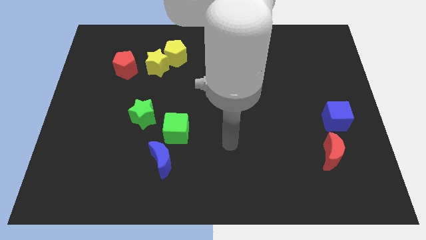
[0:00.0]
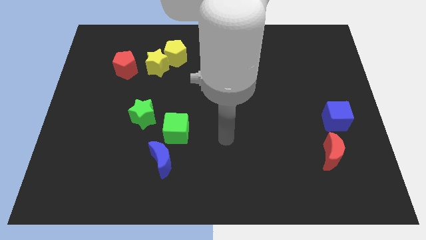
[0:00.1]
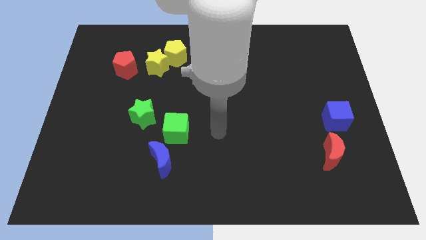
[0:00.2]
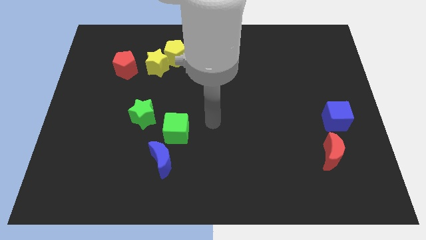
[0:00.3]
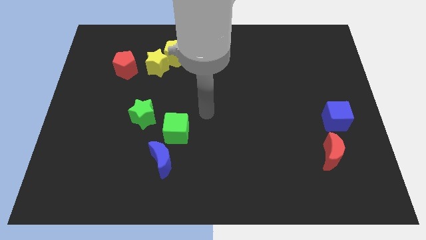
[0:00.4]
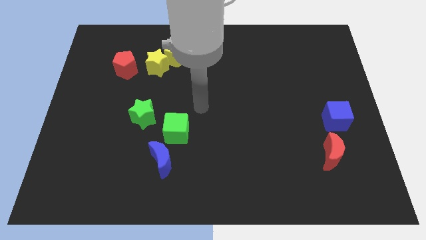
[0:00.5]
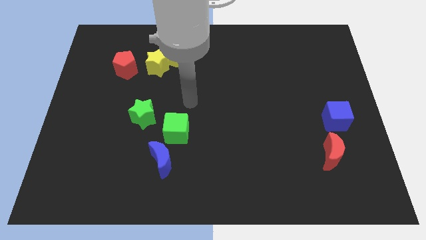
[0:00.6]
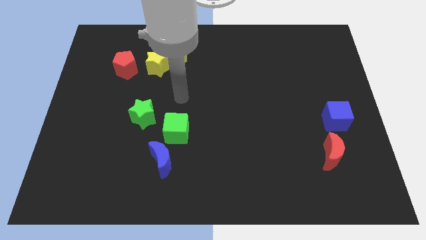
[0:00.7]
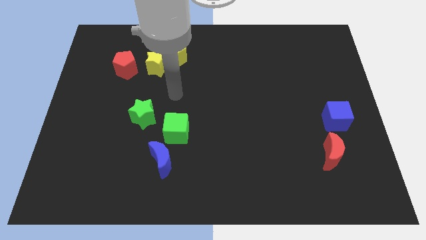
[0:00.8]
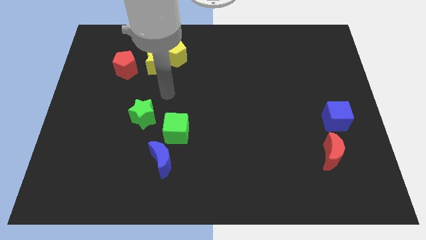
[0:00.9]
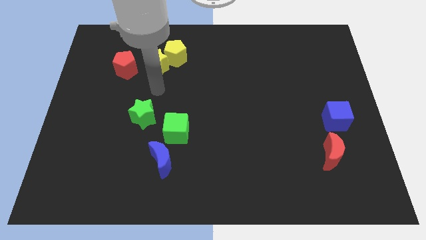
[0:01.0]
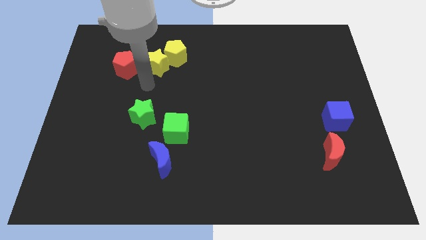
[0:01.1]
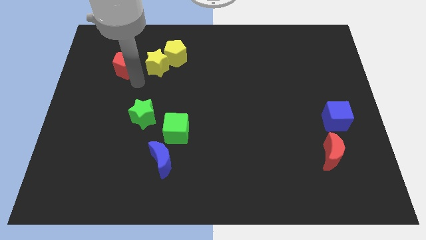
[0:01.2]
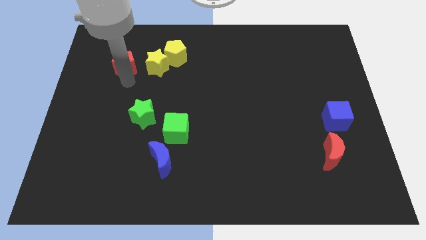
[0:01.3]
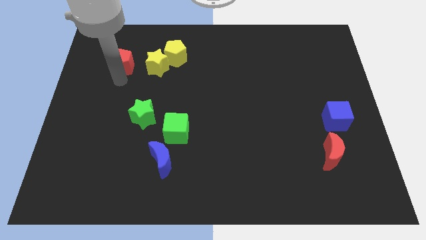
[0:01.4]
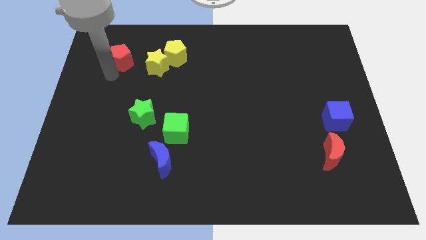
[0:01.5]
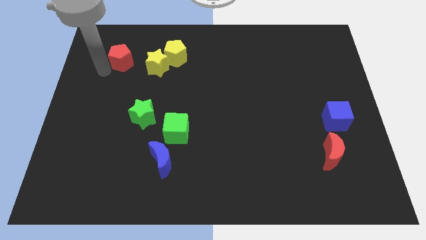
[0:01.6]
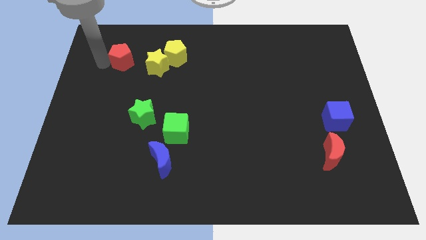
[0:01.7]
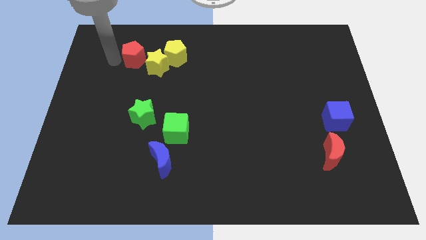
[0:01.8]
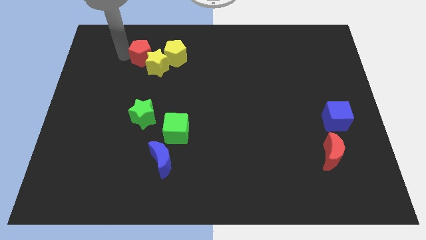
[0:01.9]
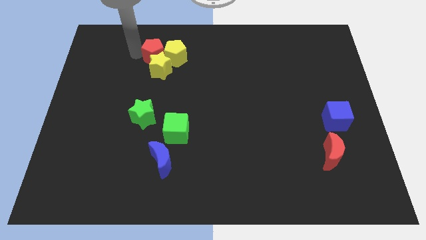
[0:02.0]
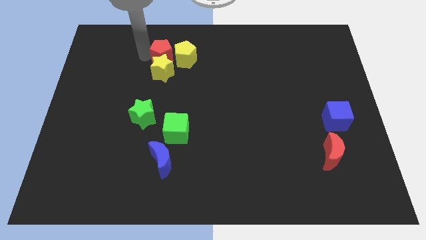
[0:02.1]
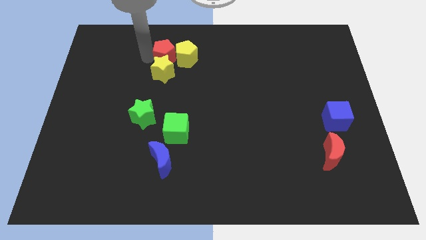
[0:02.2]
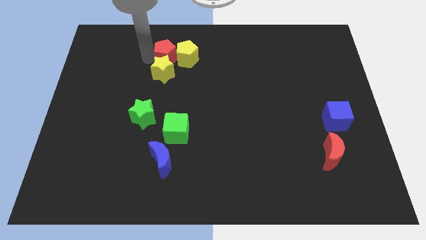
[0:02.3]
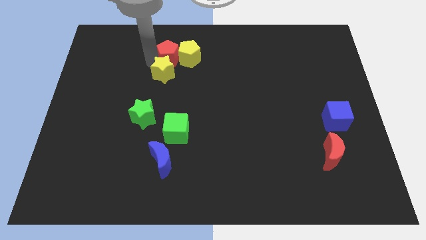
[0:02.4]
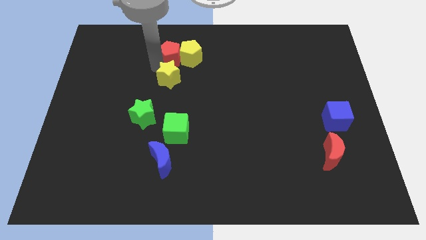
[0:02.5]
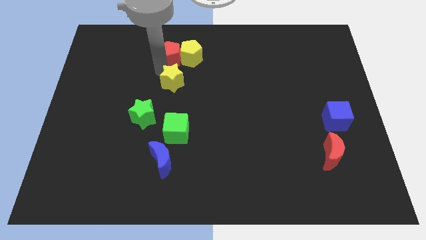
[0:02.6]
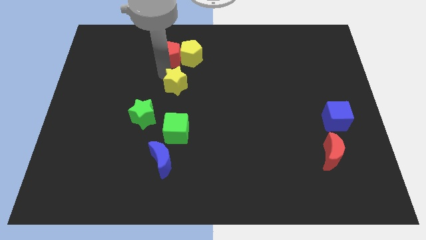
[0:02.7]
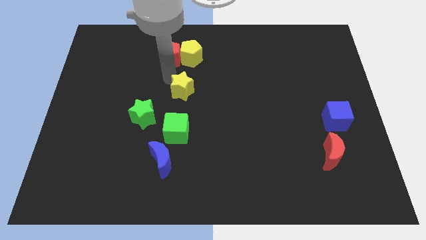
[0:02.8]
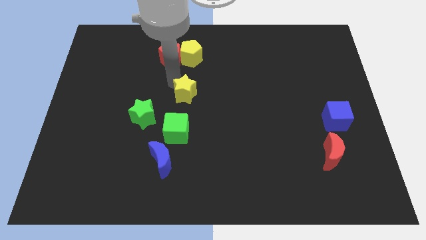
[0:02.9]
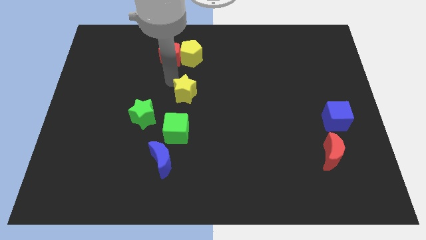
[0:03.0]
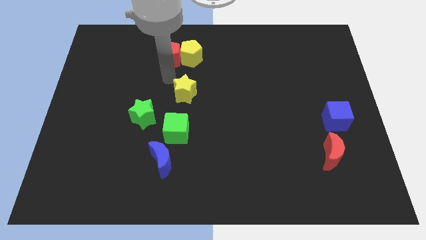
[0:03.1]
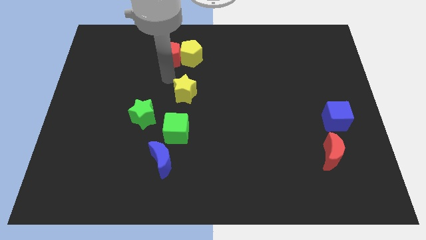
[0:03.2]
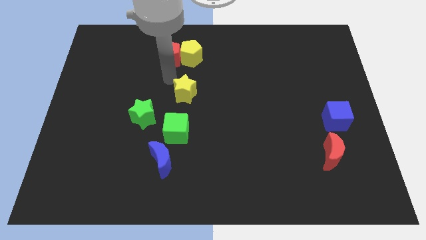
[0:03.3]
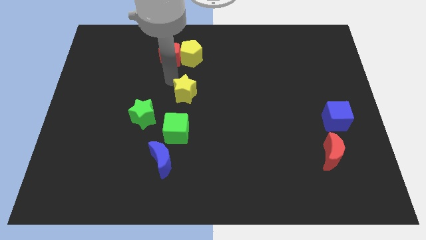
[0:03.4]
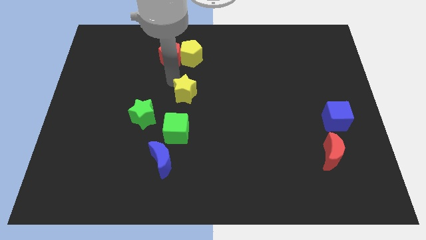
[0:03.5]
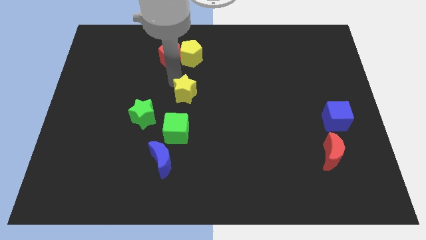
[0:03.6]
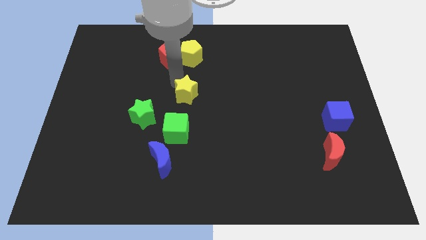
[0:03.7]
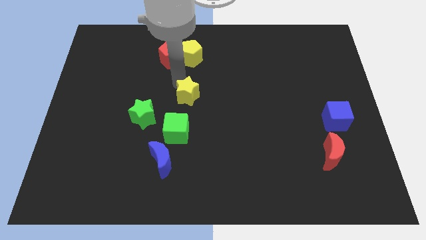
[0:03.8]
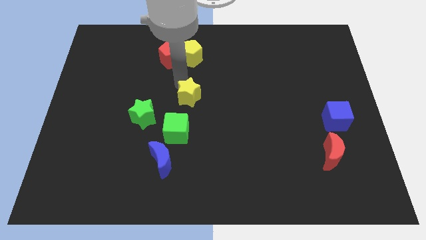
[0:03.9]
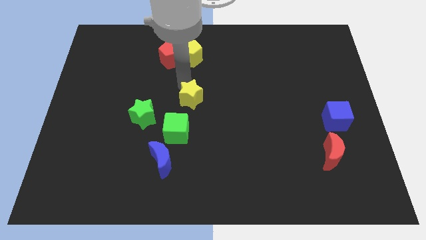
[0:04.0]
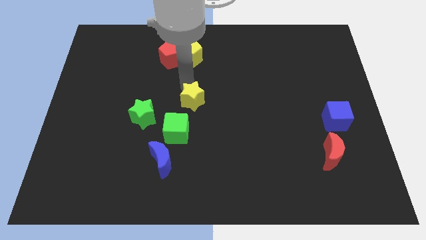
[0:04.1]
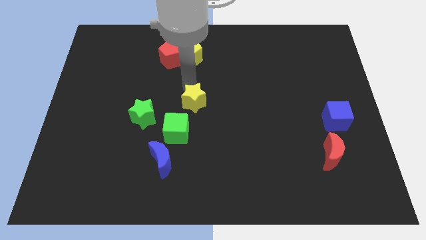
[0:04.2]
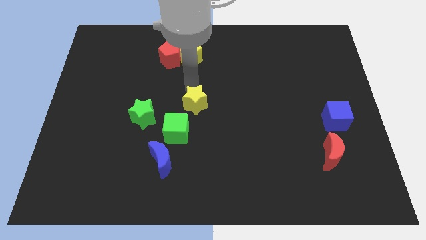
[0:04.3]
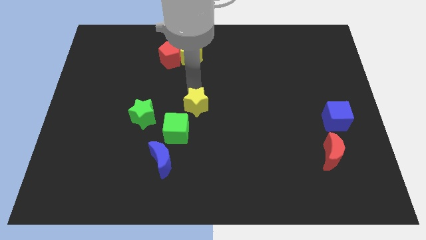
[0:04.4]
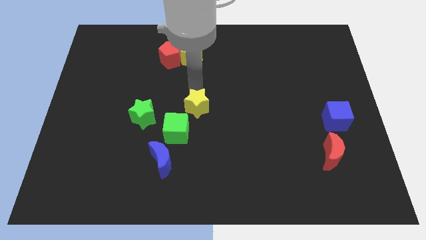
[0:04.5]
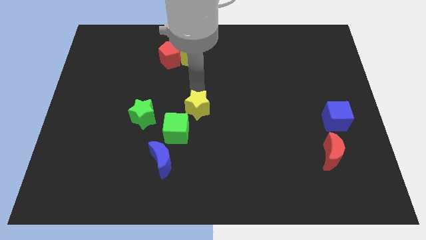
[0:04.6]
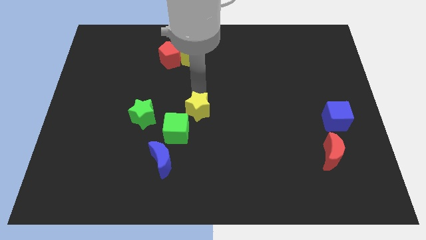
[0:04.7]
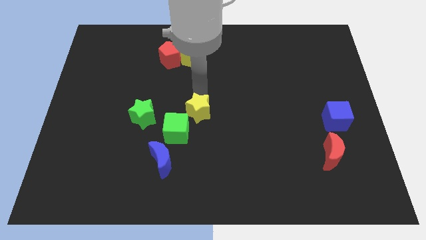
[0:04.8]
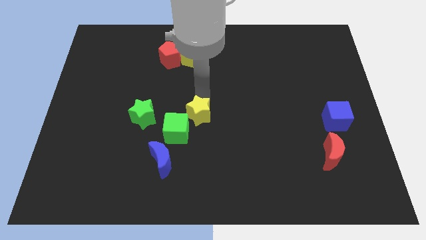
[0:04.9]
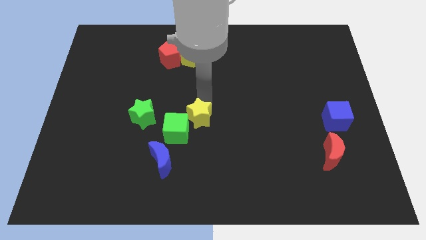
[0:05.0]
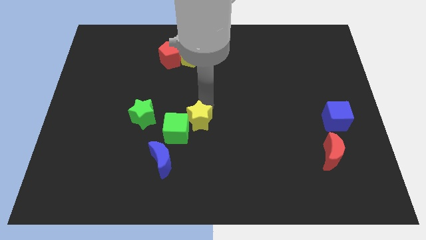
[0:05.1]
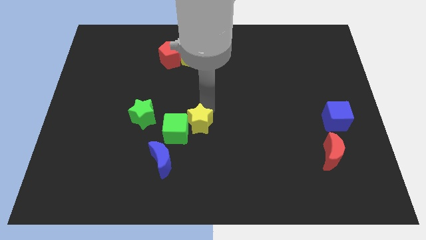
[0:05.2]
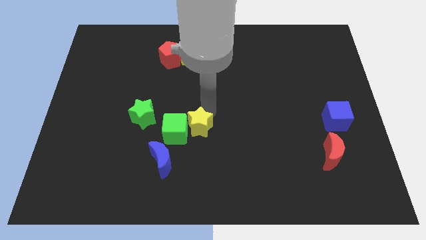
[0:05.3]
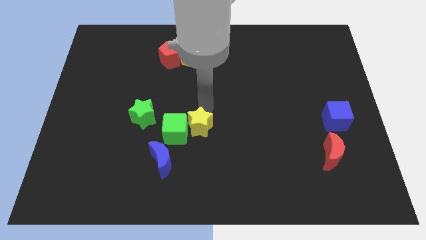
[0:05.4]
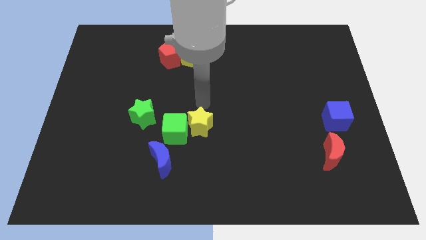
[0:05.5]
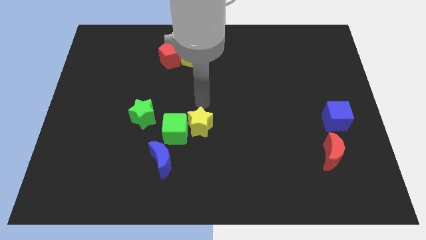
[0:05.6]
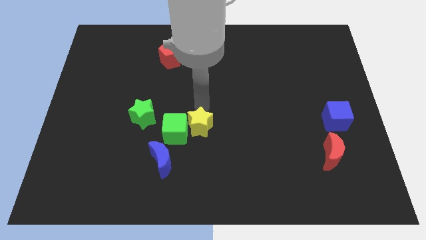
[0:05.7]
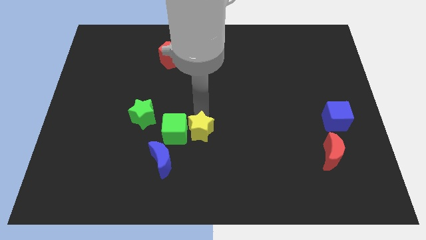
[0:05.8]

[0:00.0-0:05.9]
move the yellow star diagonally down and to the right of the green cube

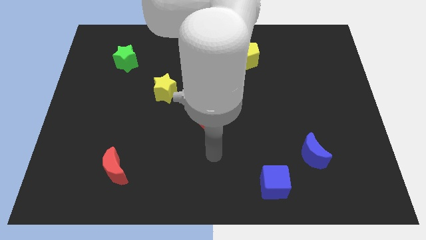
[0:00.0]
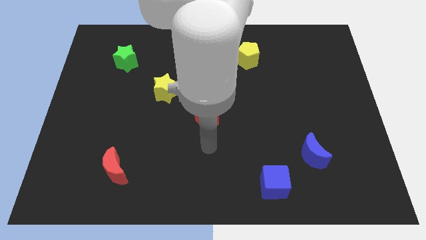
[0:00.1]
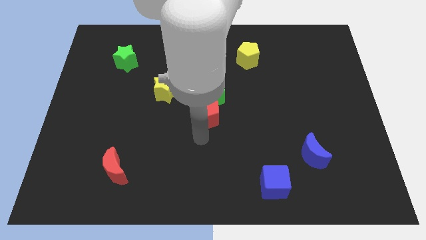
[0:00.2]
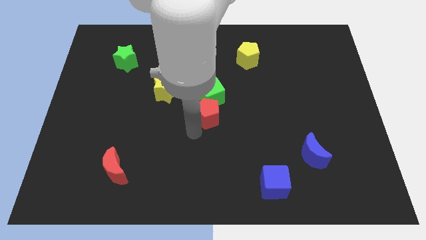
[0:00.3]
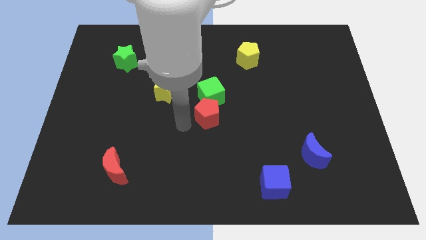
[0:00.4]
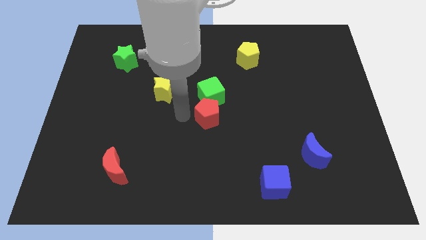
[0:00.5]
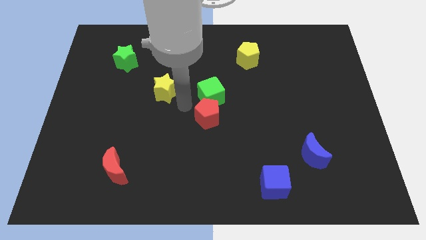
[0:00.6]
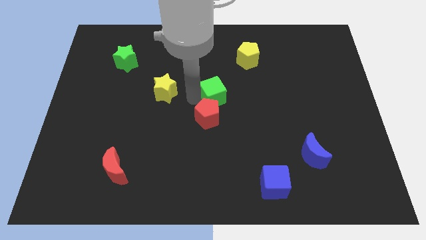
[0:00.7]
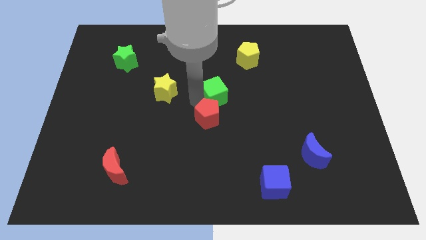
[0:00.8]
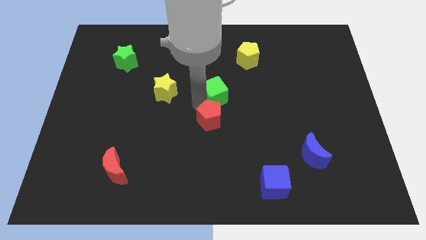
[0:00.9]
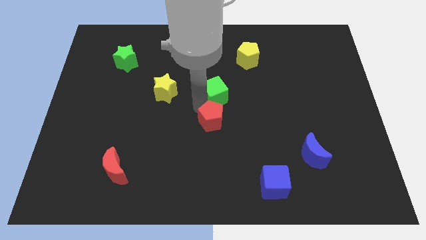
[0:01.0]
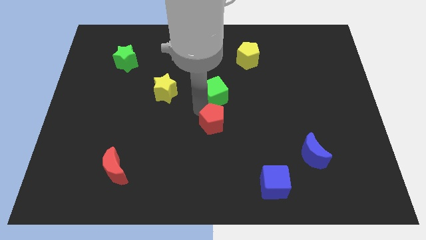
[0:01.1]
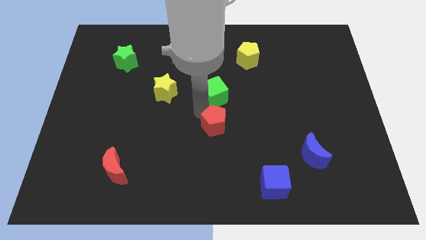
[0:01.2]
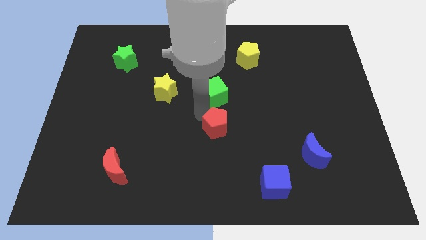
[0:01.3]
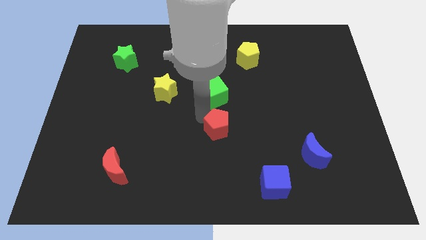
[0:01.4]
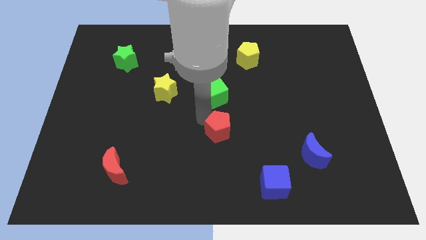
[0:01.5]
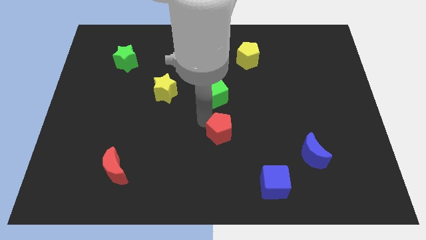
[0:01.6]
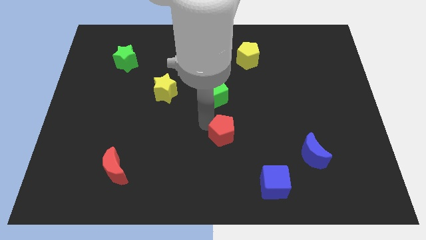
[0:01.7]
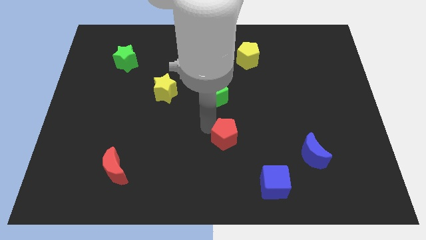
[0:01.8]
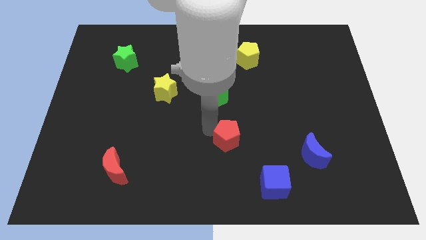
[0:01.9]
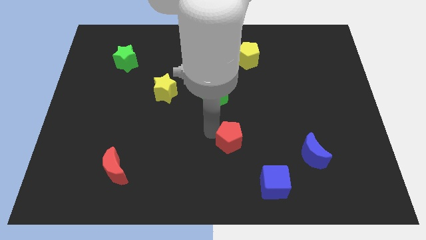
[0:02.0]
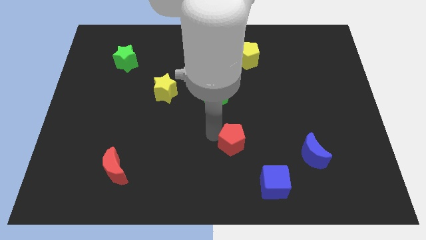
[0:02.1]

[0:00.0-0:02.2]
push the red pentagon to the top left of the blue cube
